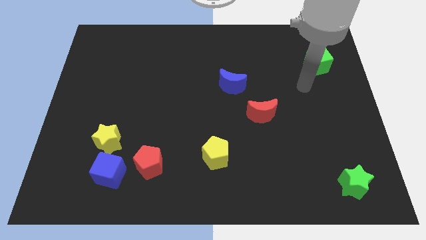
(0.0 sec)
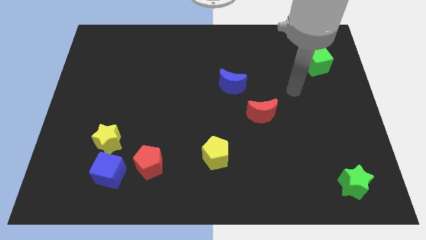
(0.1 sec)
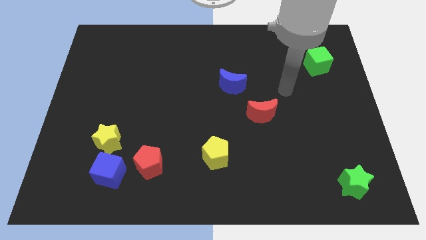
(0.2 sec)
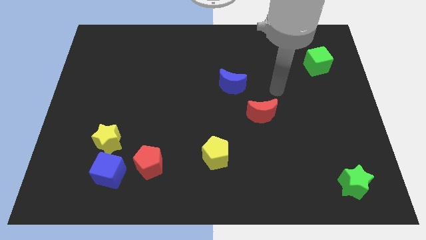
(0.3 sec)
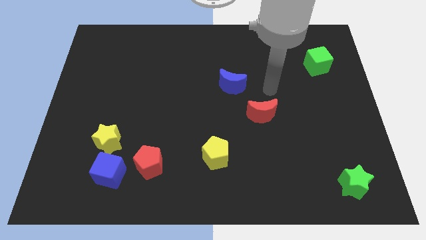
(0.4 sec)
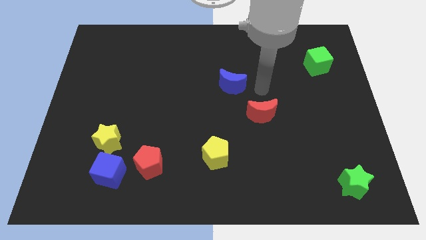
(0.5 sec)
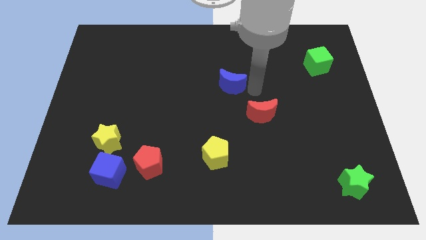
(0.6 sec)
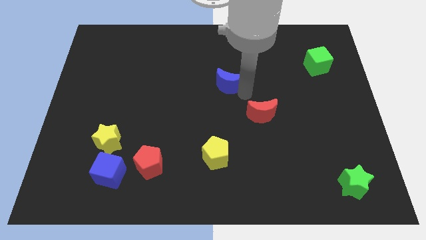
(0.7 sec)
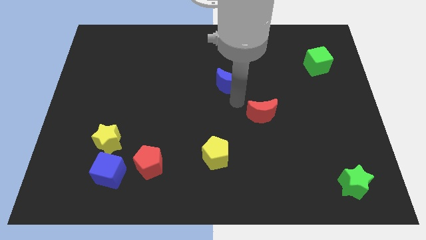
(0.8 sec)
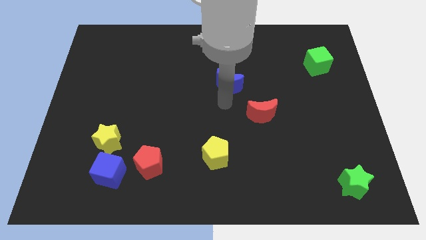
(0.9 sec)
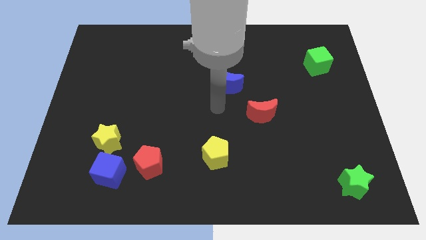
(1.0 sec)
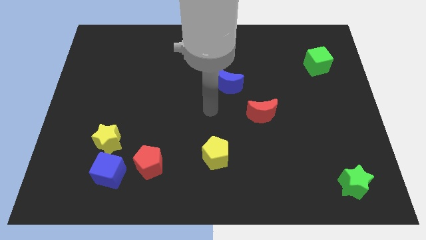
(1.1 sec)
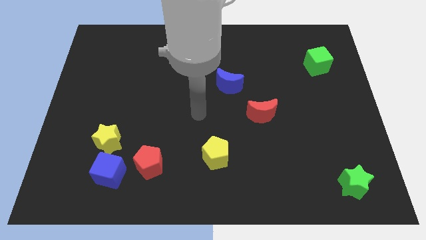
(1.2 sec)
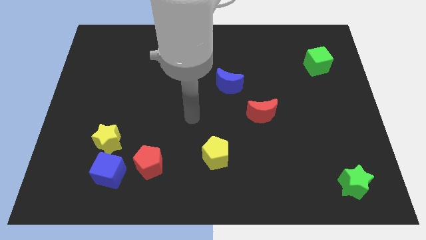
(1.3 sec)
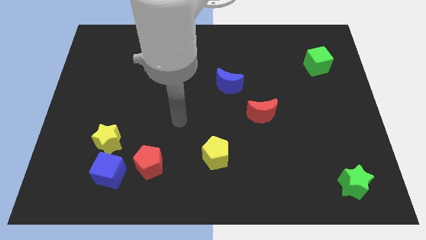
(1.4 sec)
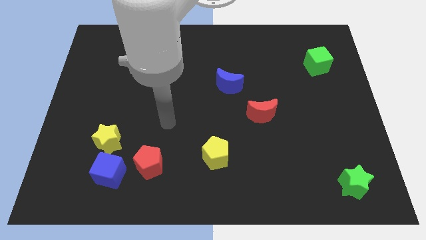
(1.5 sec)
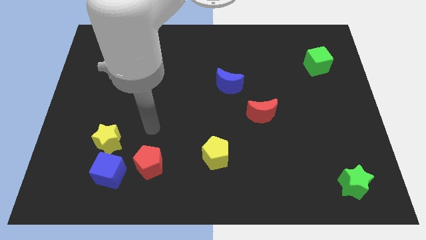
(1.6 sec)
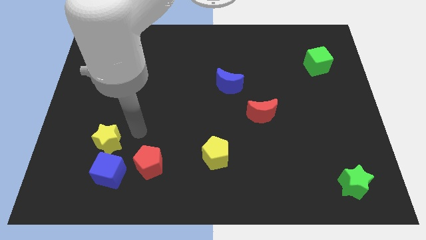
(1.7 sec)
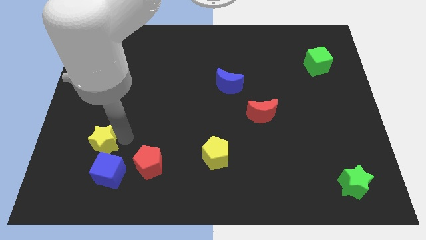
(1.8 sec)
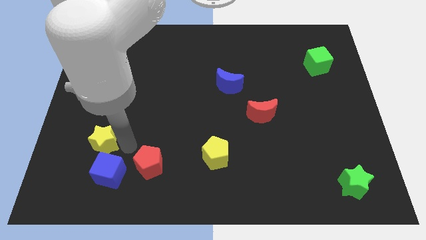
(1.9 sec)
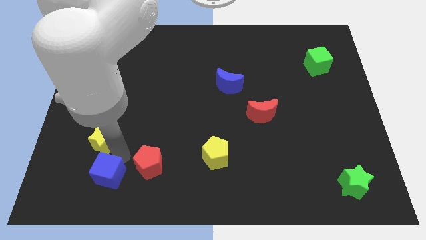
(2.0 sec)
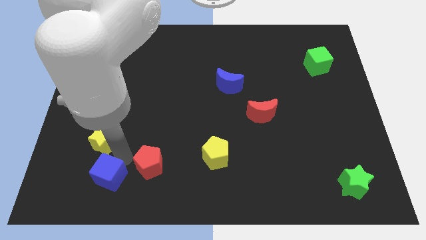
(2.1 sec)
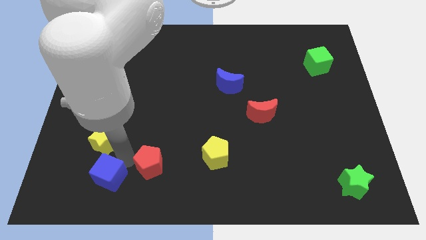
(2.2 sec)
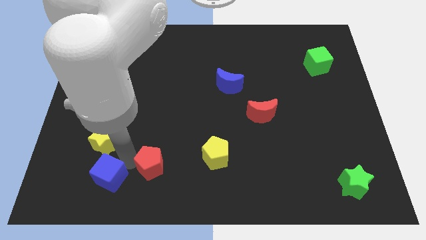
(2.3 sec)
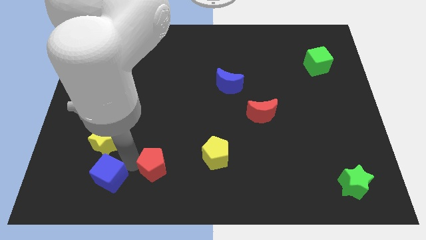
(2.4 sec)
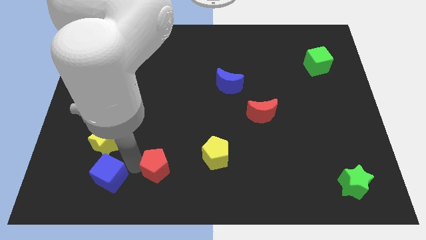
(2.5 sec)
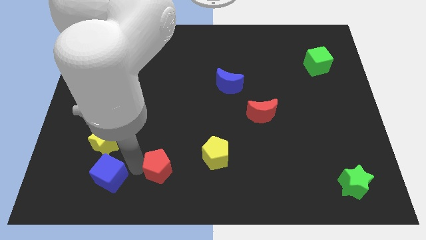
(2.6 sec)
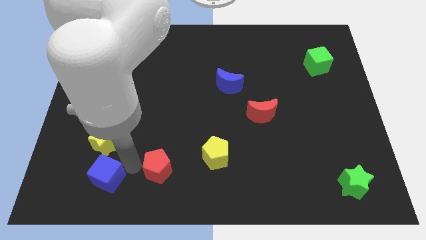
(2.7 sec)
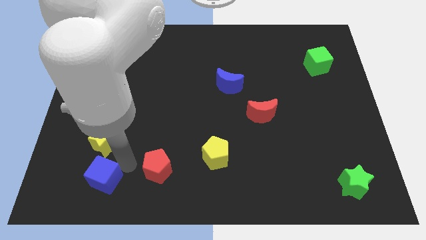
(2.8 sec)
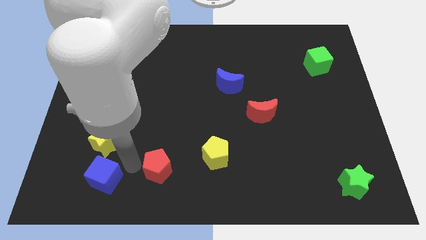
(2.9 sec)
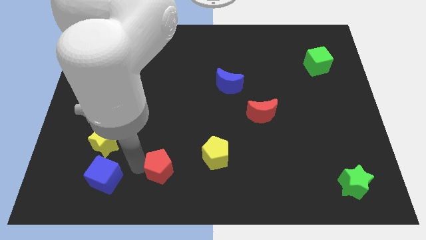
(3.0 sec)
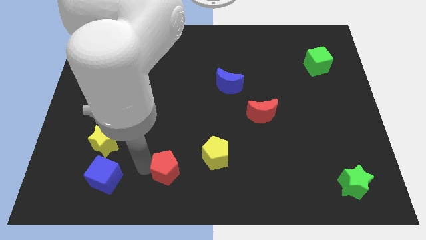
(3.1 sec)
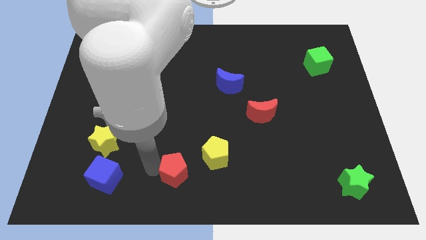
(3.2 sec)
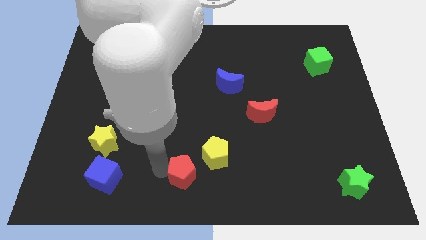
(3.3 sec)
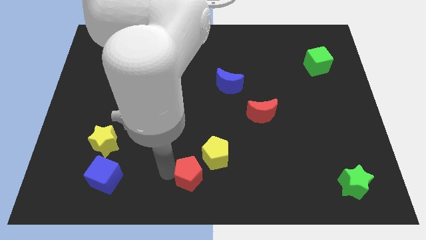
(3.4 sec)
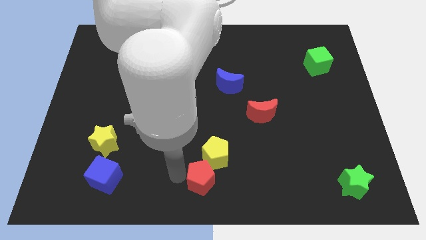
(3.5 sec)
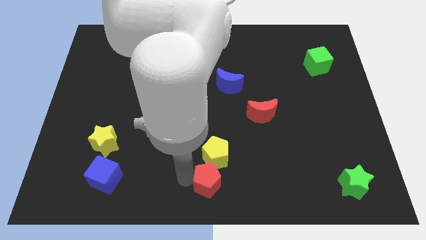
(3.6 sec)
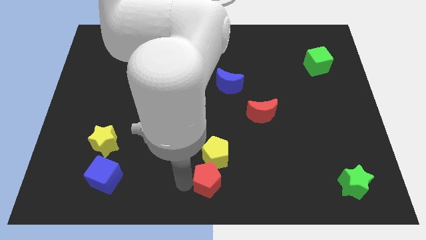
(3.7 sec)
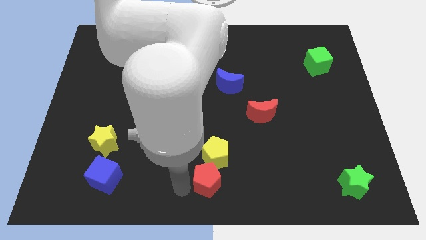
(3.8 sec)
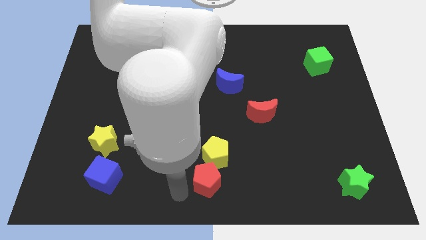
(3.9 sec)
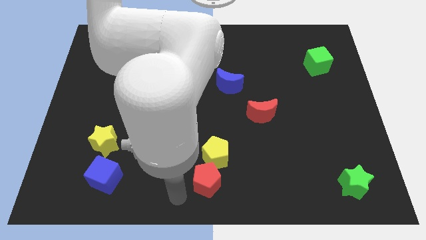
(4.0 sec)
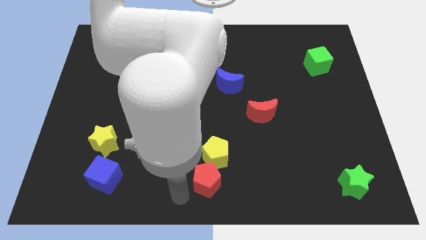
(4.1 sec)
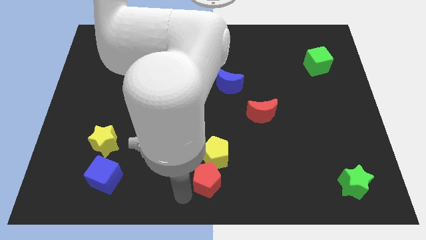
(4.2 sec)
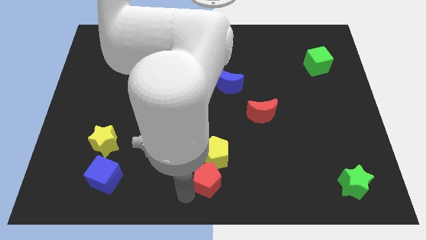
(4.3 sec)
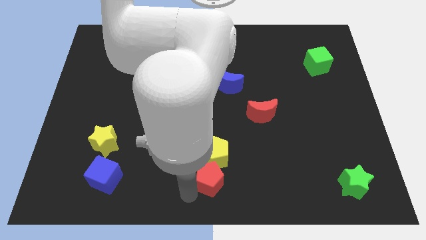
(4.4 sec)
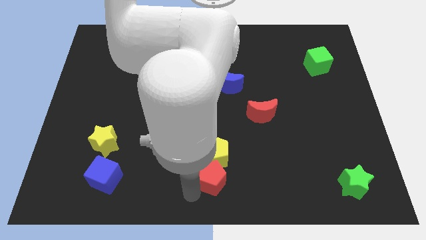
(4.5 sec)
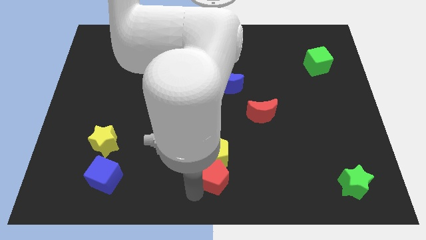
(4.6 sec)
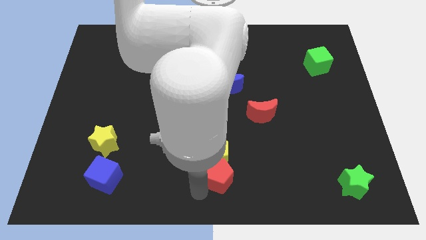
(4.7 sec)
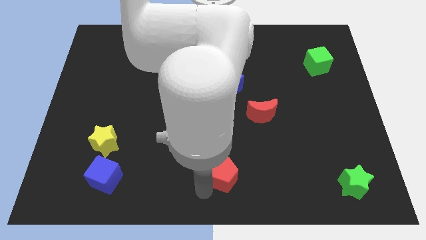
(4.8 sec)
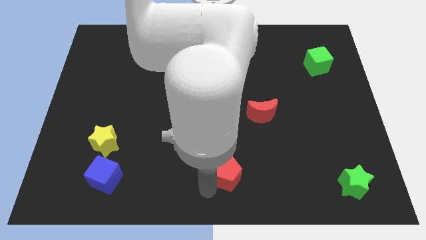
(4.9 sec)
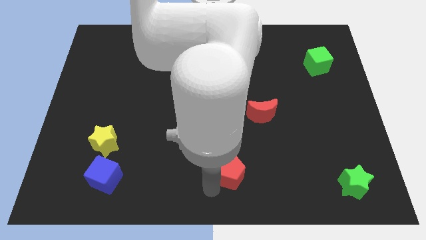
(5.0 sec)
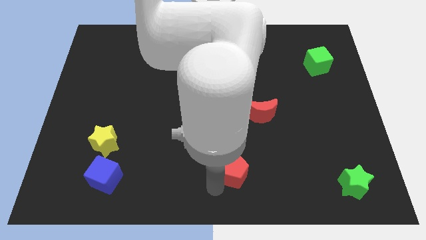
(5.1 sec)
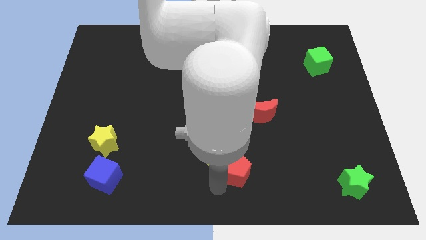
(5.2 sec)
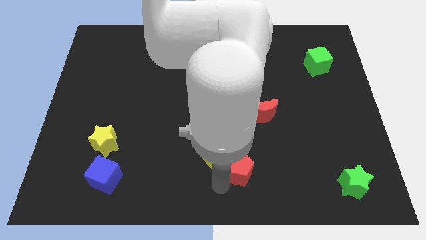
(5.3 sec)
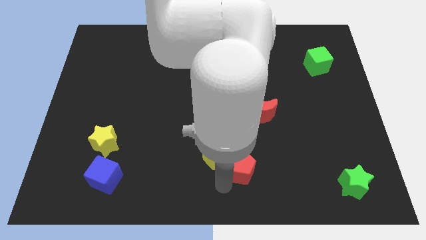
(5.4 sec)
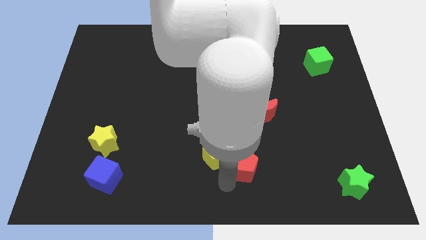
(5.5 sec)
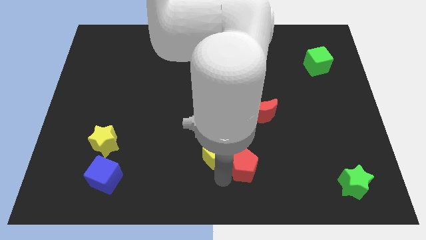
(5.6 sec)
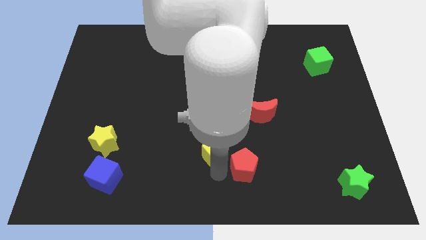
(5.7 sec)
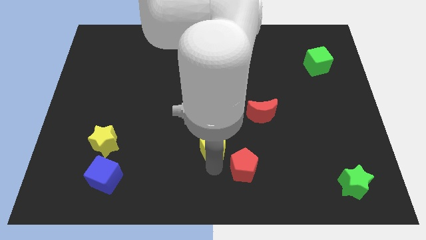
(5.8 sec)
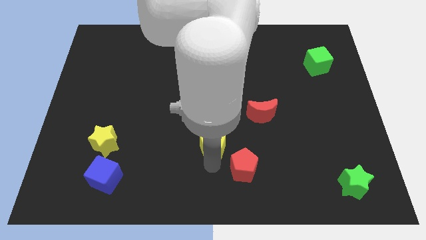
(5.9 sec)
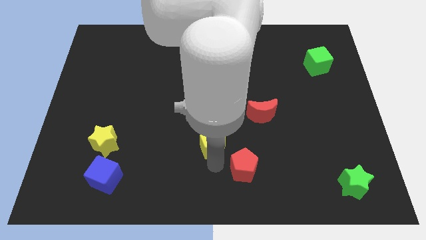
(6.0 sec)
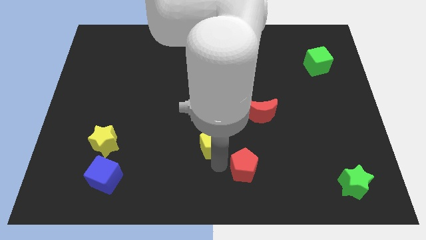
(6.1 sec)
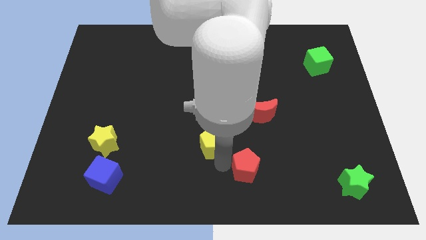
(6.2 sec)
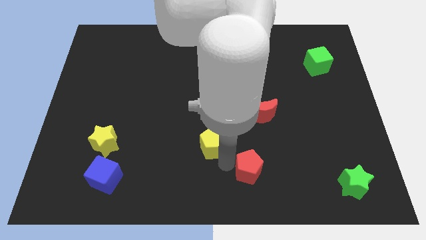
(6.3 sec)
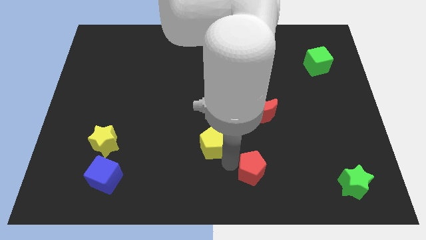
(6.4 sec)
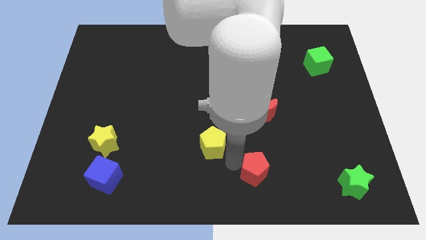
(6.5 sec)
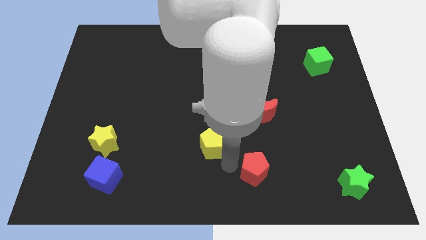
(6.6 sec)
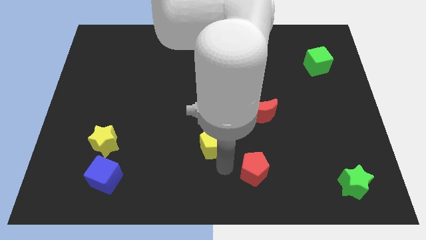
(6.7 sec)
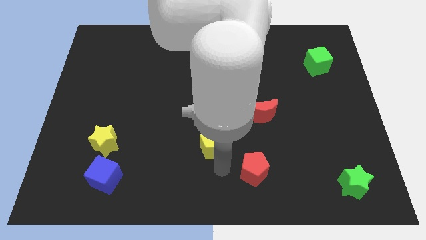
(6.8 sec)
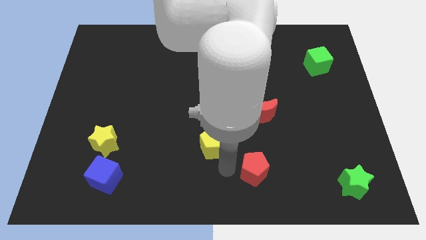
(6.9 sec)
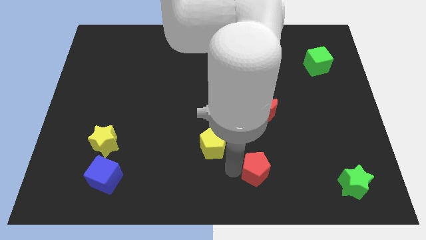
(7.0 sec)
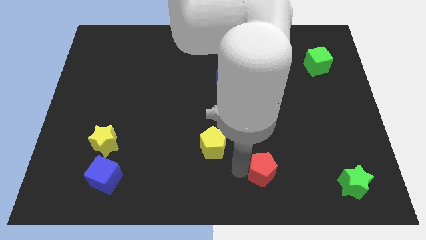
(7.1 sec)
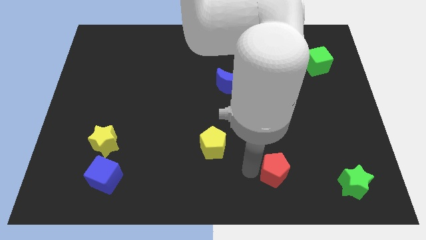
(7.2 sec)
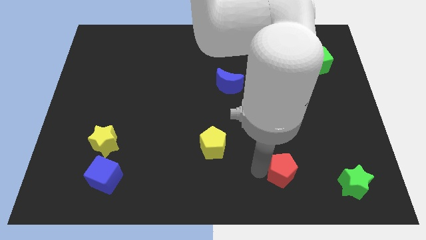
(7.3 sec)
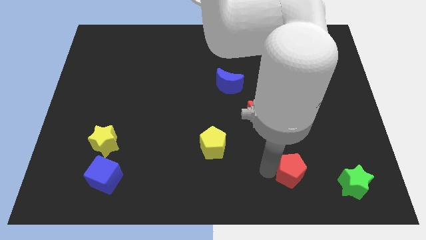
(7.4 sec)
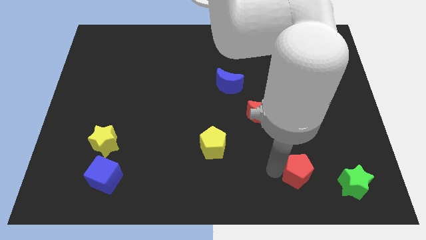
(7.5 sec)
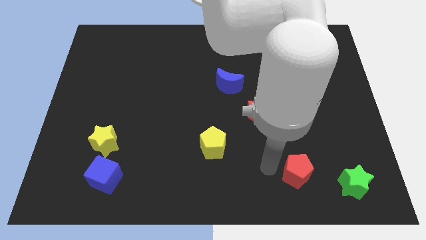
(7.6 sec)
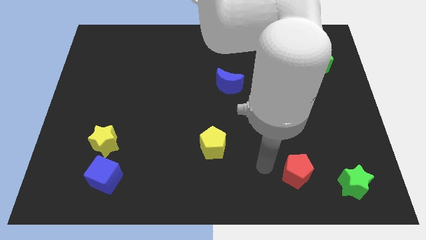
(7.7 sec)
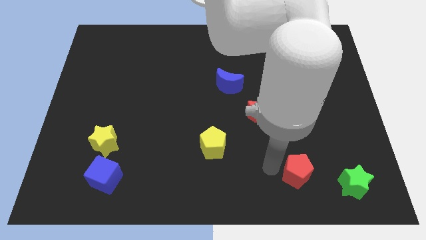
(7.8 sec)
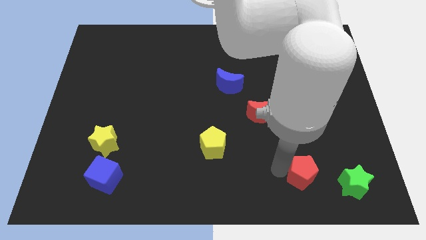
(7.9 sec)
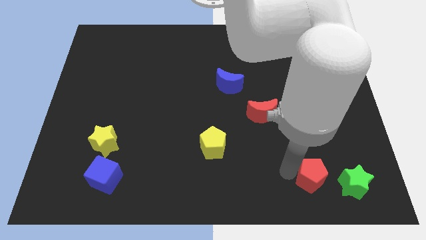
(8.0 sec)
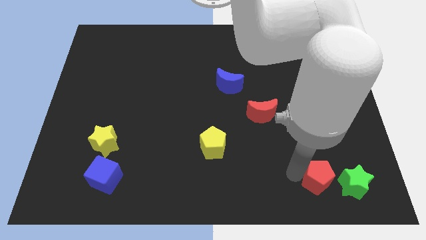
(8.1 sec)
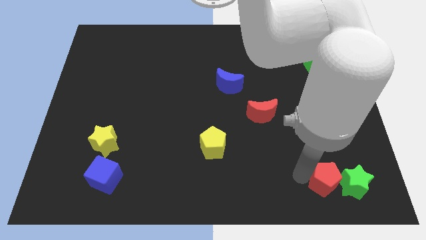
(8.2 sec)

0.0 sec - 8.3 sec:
push the red pentagon to the green star
